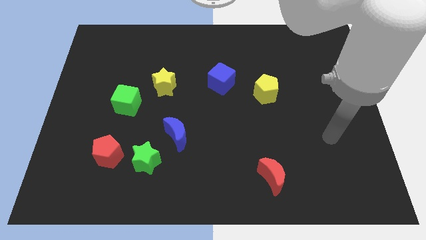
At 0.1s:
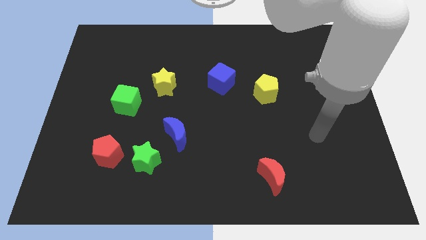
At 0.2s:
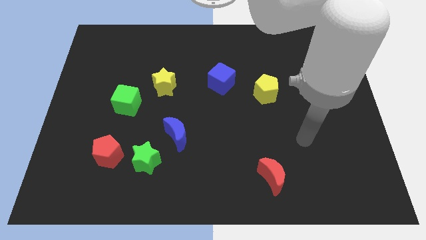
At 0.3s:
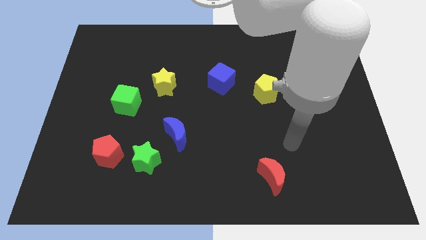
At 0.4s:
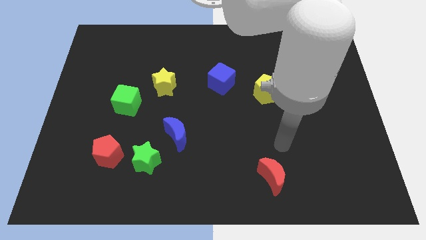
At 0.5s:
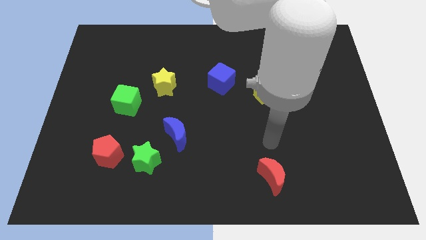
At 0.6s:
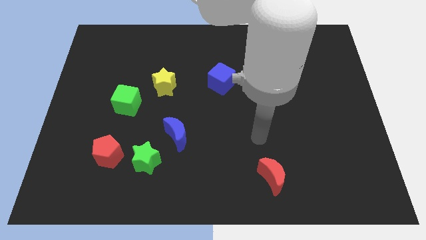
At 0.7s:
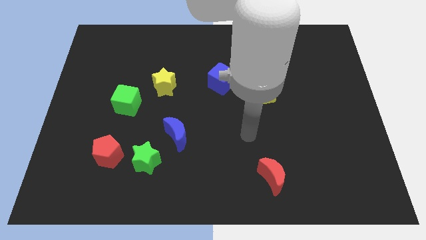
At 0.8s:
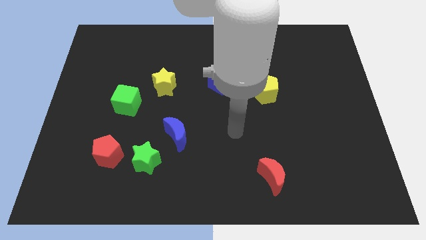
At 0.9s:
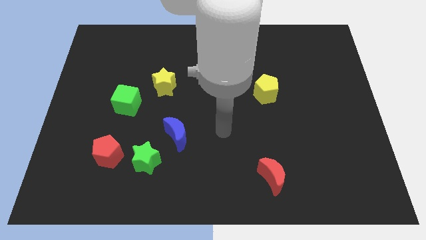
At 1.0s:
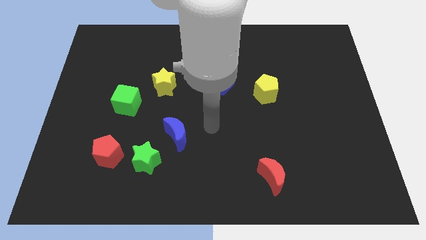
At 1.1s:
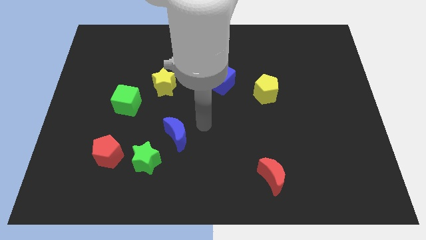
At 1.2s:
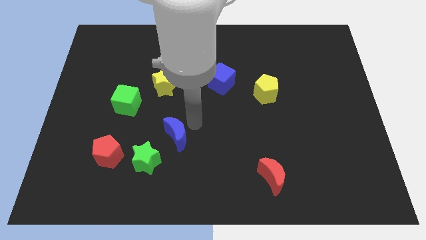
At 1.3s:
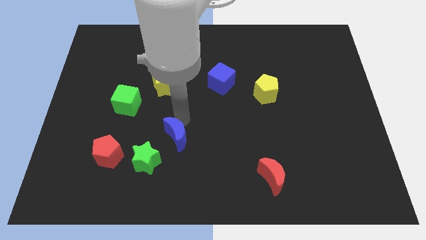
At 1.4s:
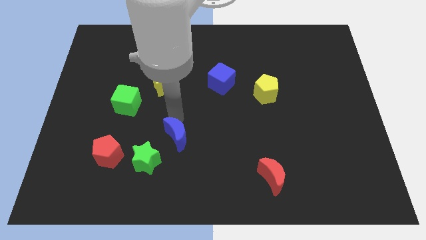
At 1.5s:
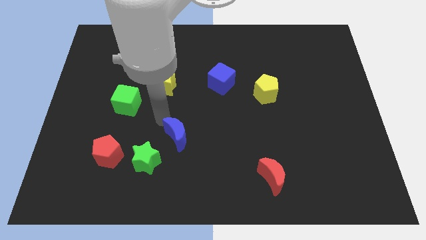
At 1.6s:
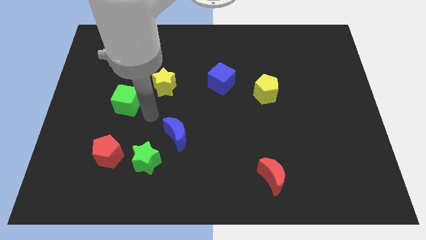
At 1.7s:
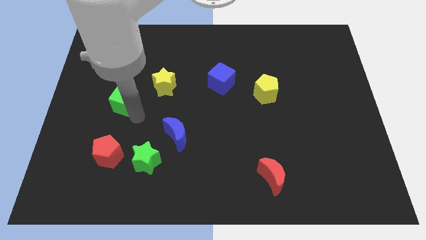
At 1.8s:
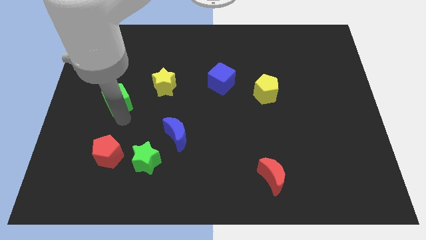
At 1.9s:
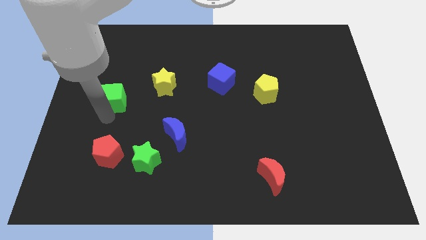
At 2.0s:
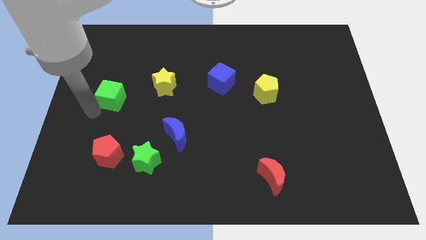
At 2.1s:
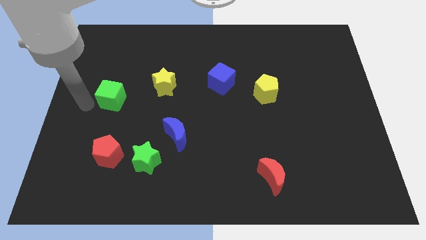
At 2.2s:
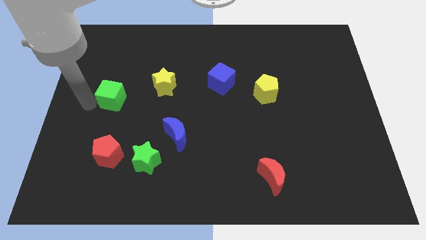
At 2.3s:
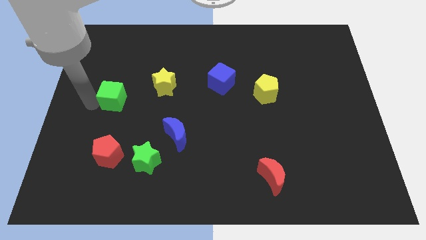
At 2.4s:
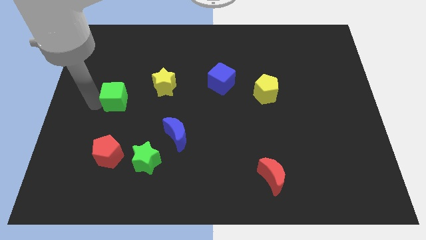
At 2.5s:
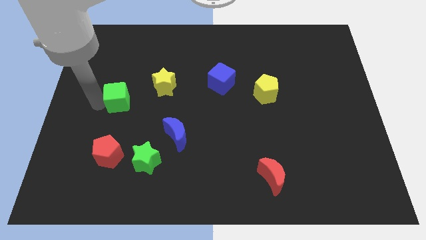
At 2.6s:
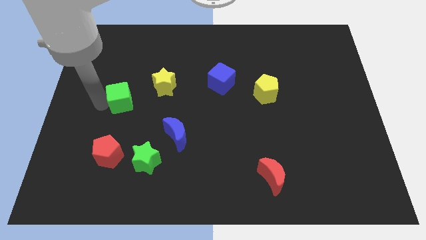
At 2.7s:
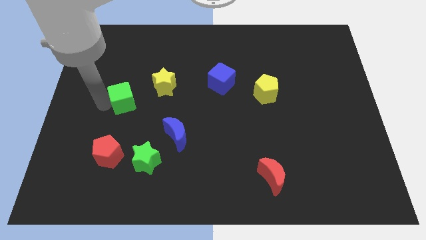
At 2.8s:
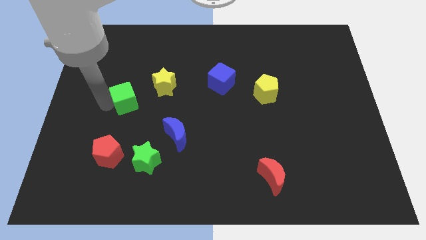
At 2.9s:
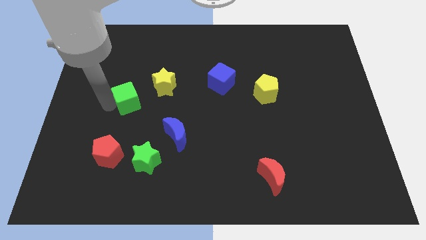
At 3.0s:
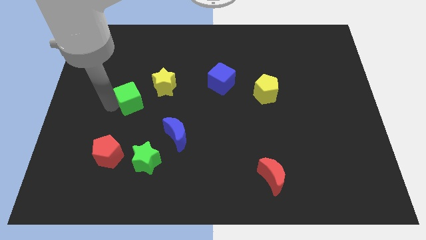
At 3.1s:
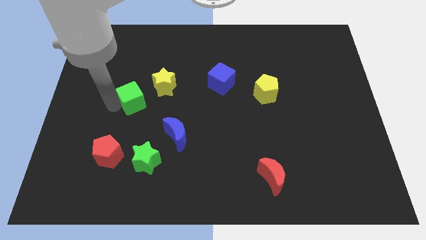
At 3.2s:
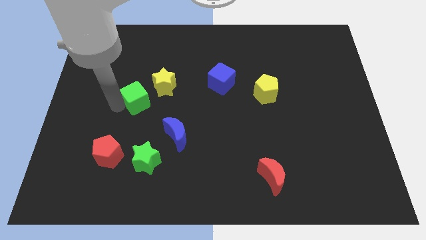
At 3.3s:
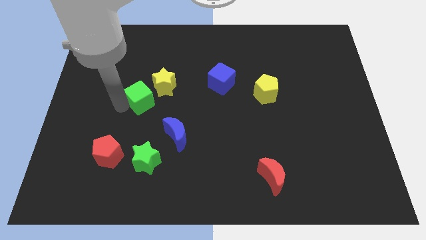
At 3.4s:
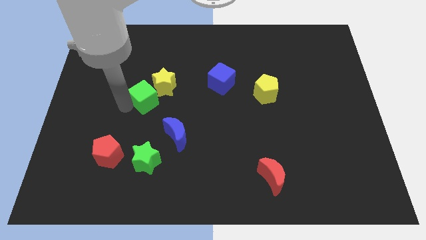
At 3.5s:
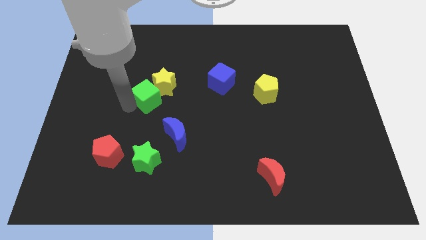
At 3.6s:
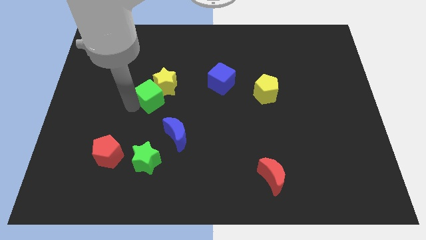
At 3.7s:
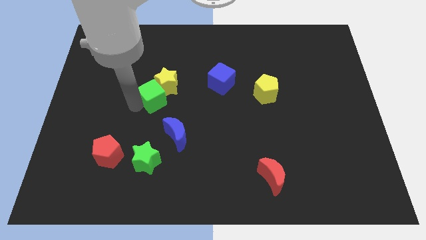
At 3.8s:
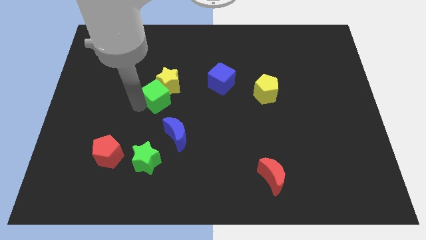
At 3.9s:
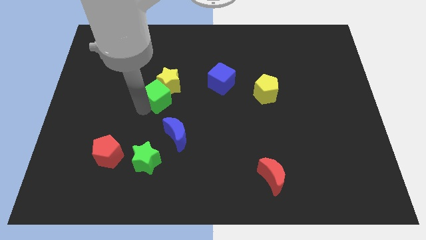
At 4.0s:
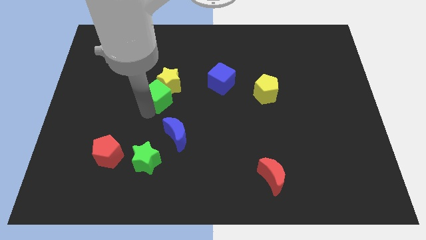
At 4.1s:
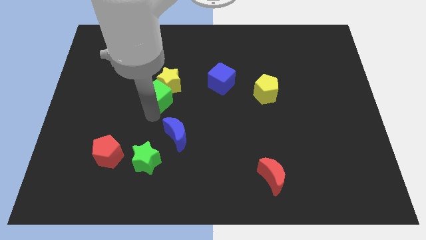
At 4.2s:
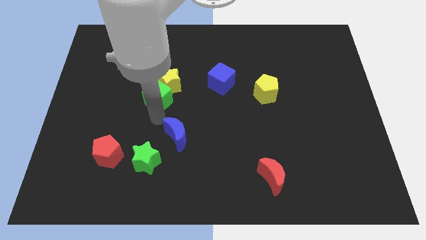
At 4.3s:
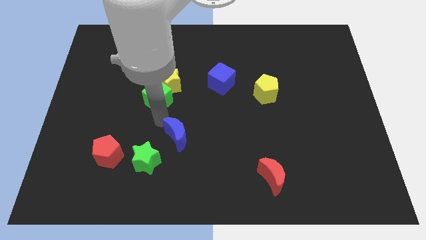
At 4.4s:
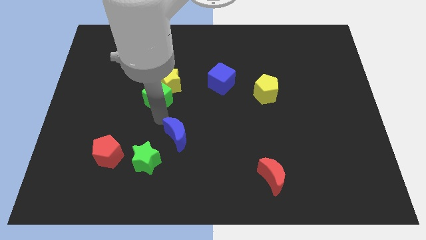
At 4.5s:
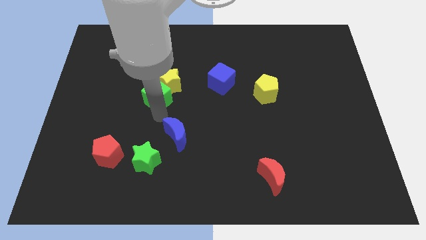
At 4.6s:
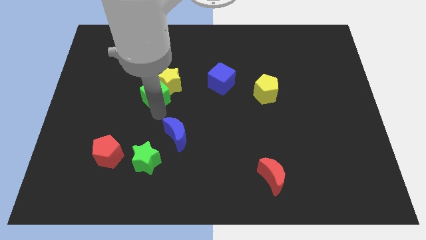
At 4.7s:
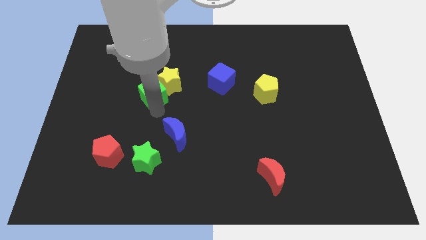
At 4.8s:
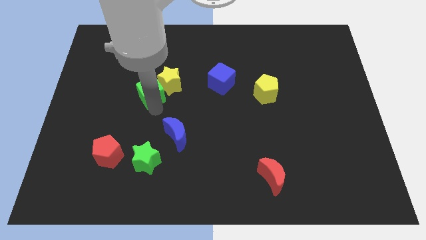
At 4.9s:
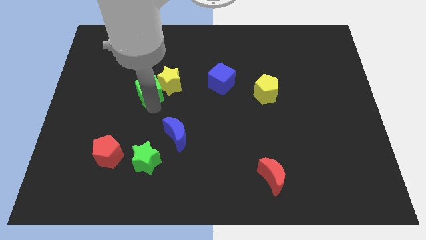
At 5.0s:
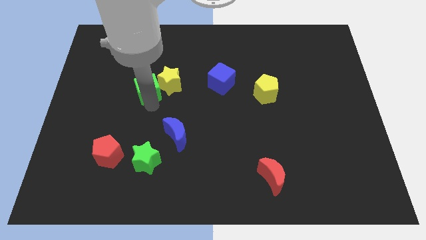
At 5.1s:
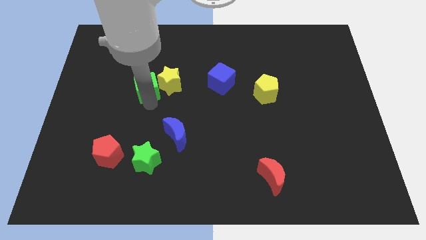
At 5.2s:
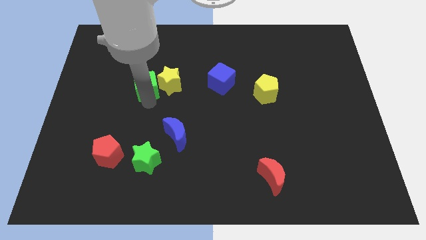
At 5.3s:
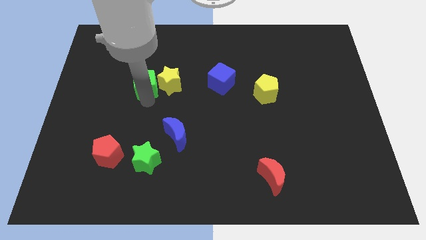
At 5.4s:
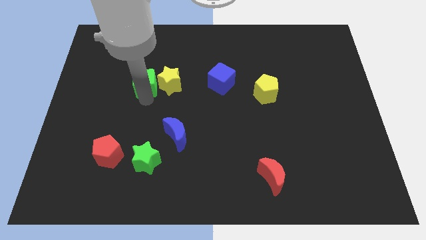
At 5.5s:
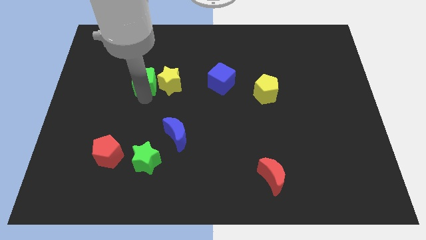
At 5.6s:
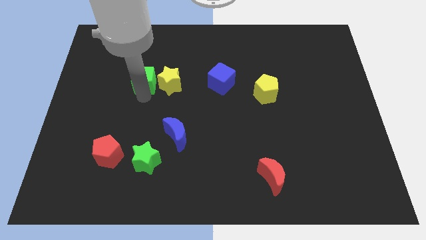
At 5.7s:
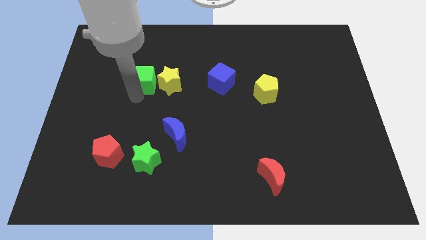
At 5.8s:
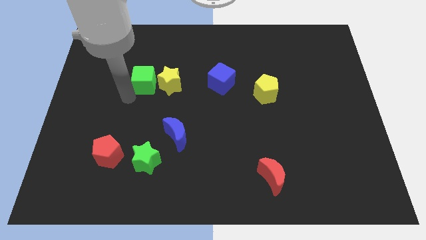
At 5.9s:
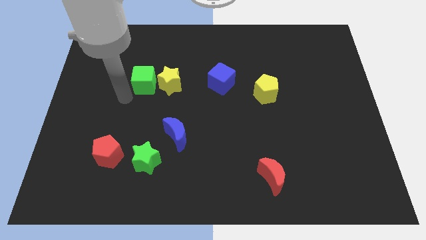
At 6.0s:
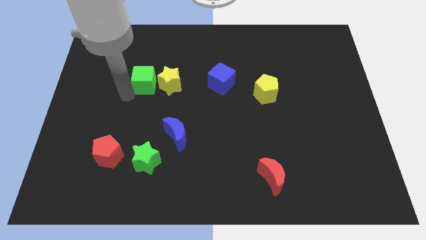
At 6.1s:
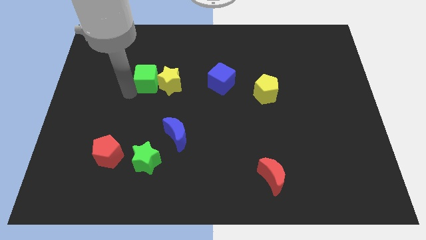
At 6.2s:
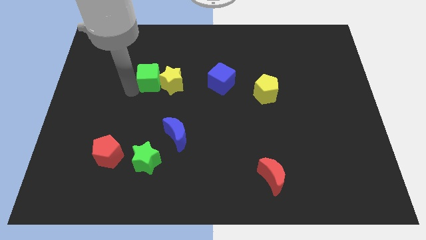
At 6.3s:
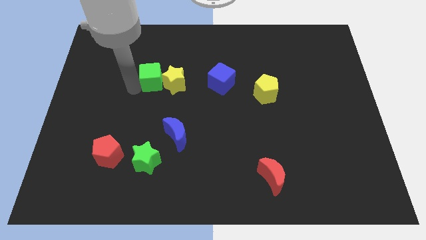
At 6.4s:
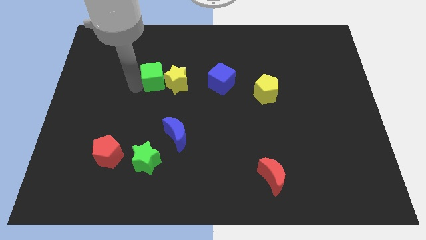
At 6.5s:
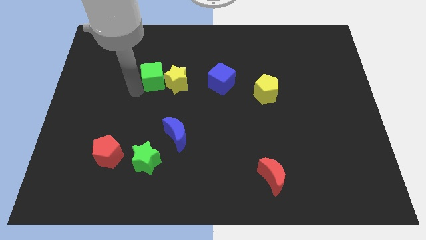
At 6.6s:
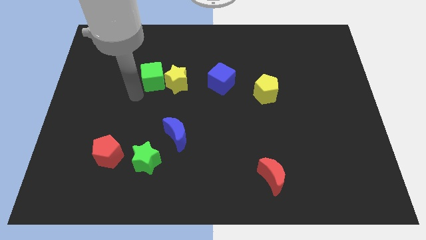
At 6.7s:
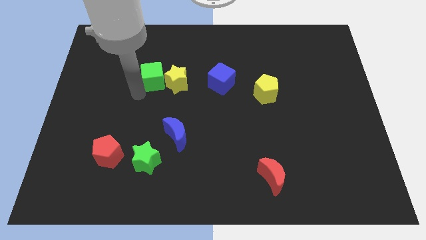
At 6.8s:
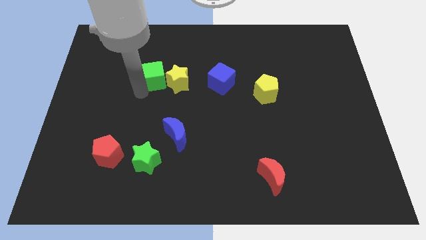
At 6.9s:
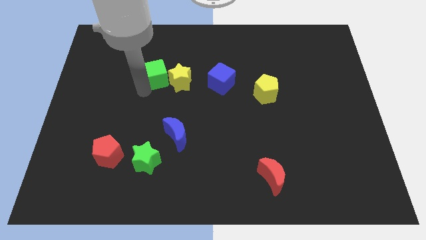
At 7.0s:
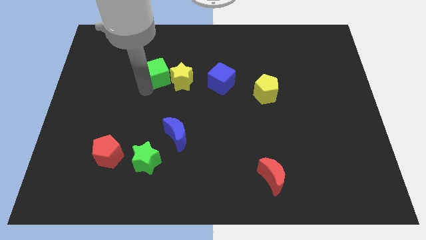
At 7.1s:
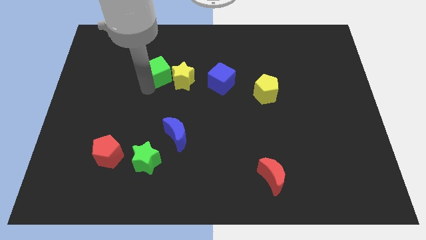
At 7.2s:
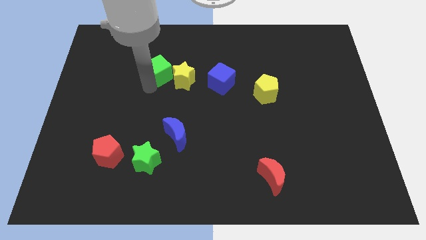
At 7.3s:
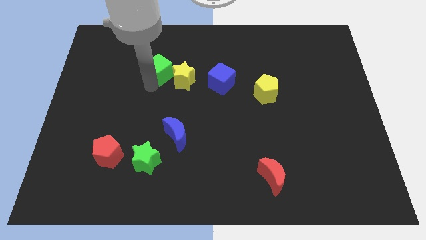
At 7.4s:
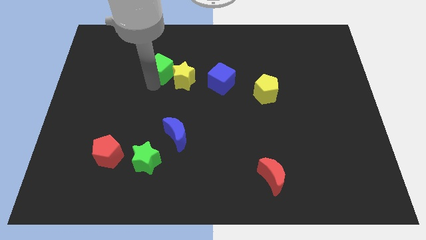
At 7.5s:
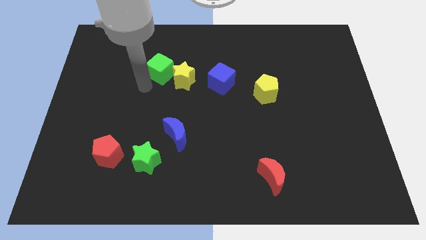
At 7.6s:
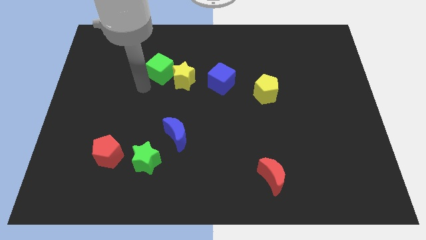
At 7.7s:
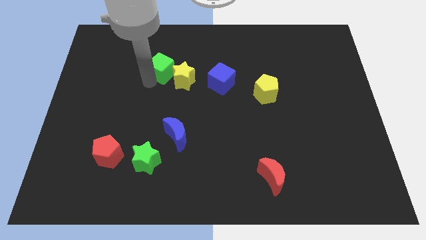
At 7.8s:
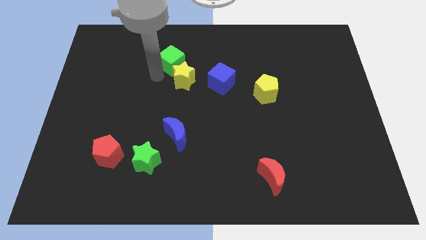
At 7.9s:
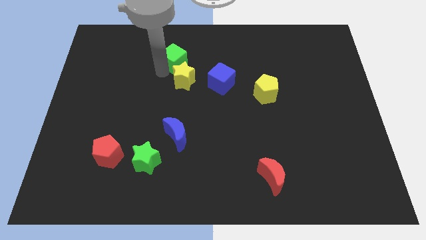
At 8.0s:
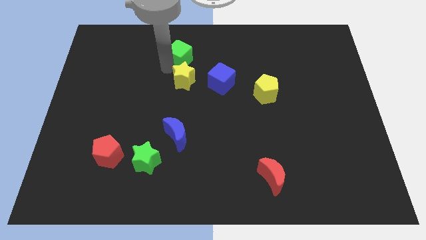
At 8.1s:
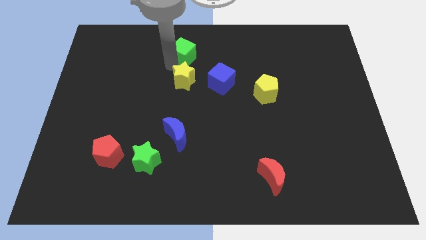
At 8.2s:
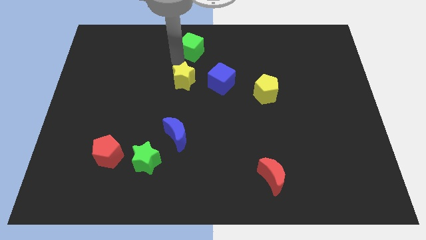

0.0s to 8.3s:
put the green cube to the top
